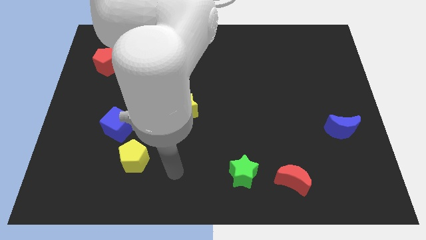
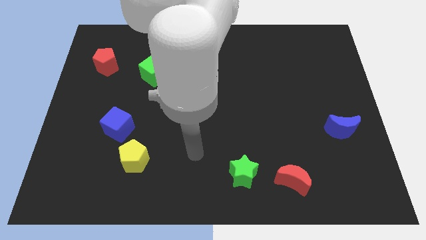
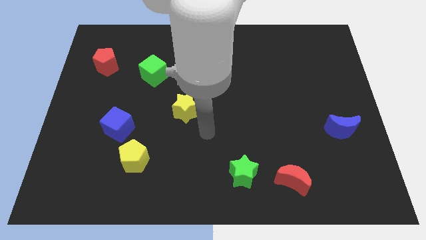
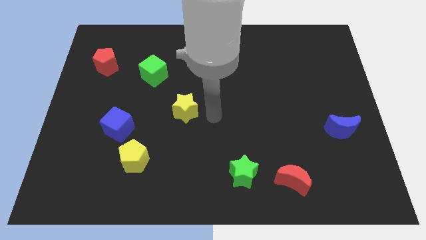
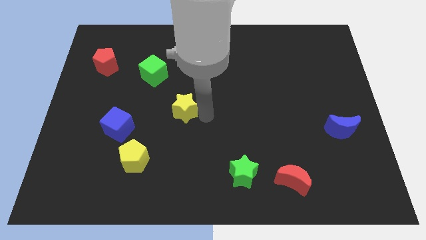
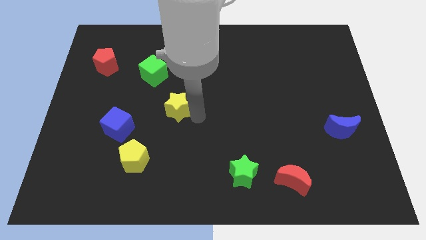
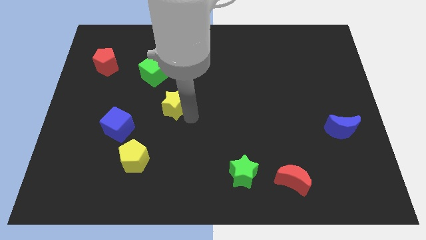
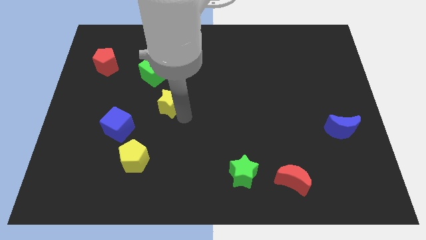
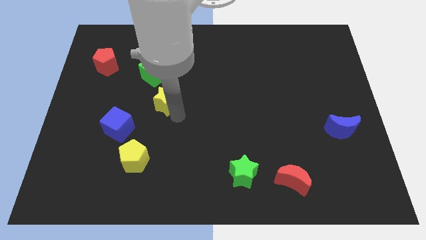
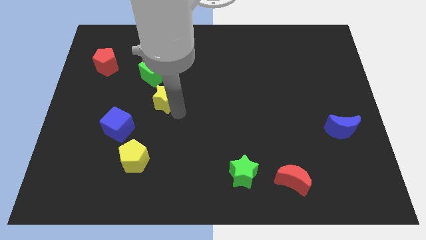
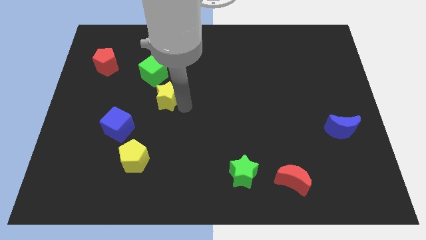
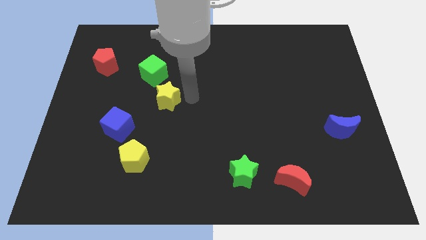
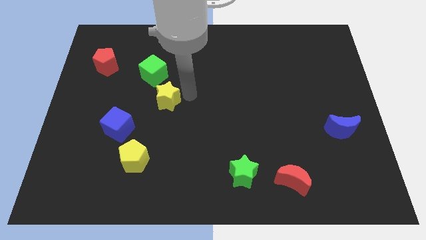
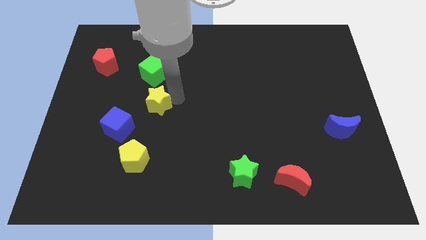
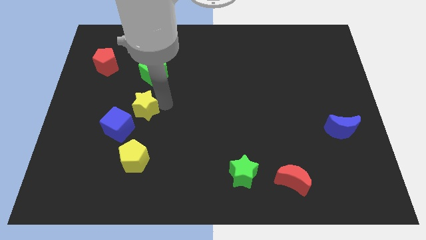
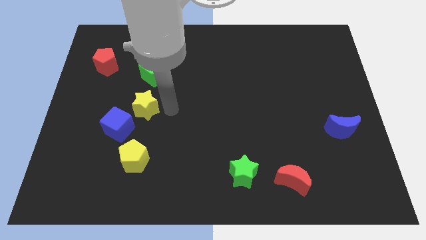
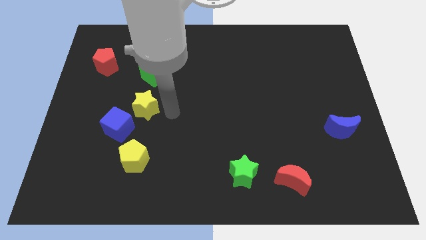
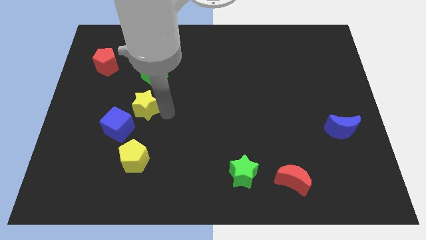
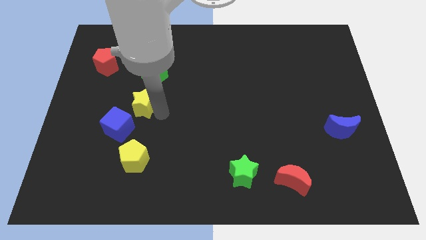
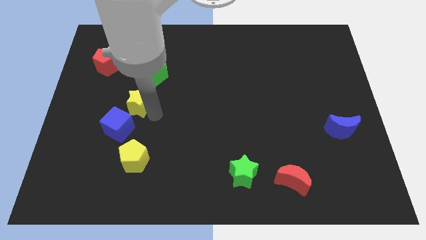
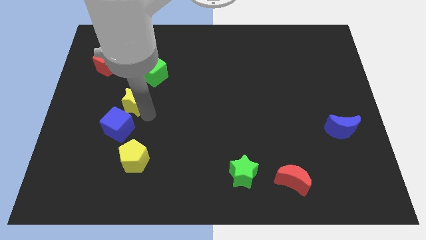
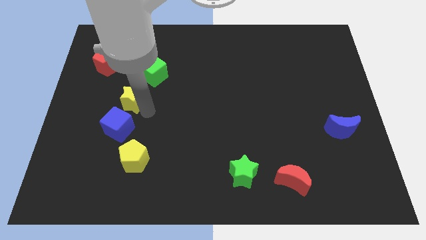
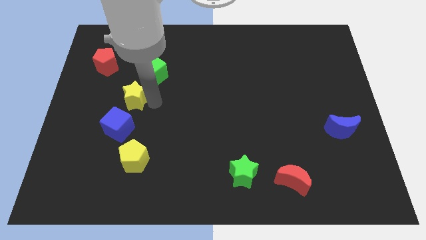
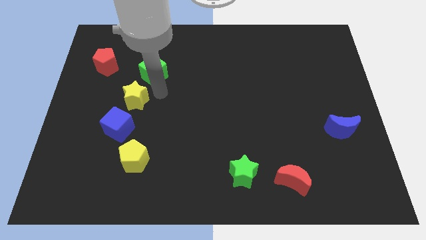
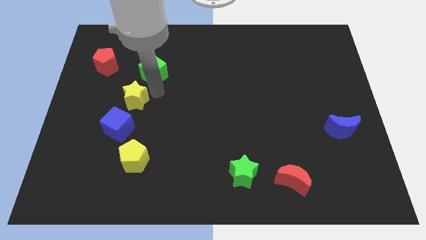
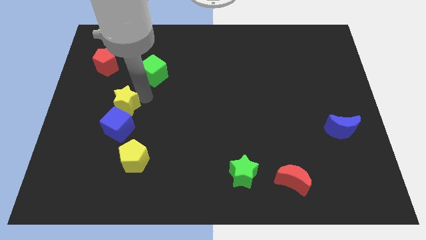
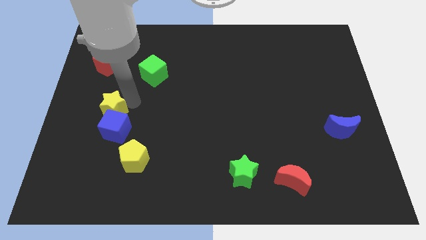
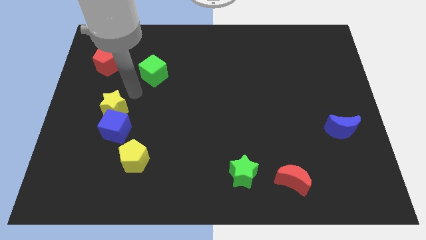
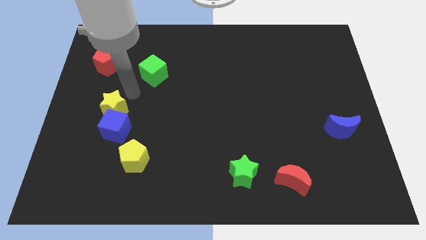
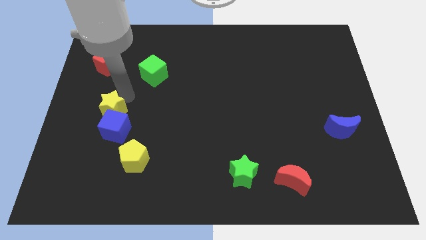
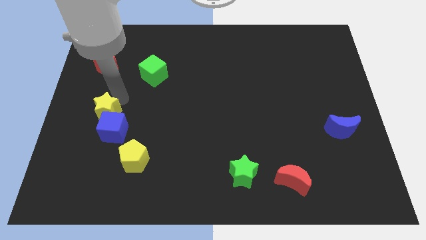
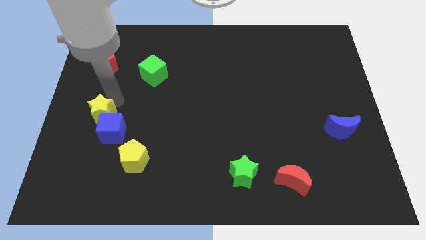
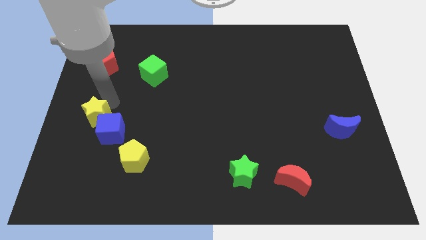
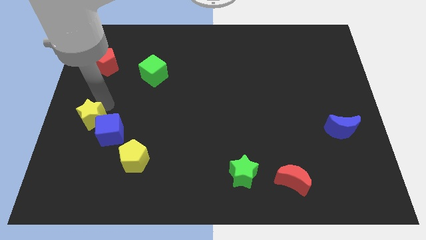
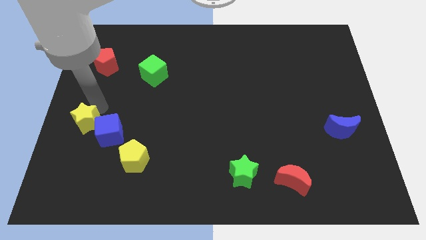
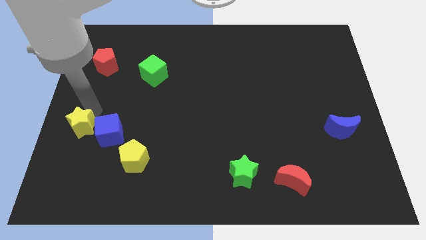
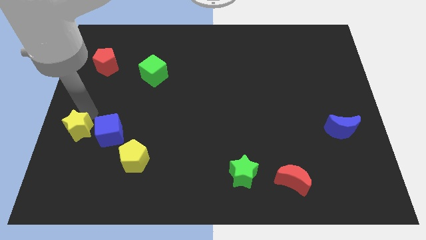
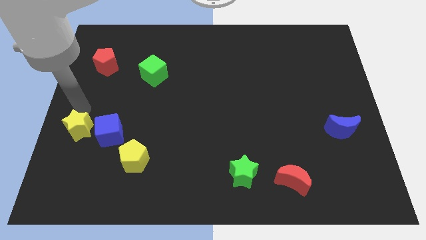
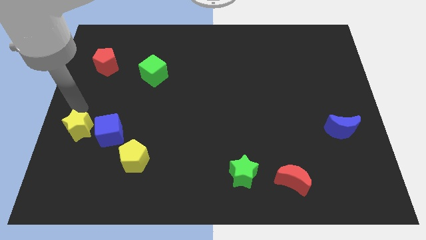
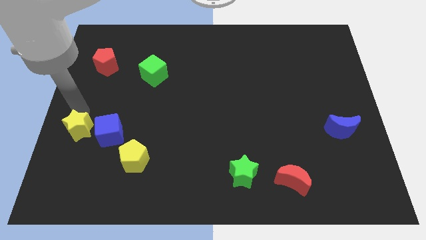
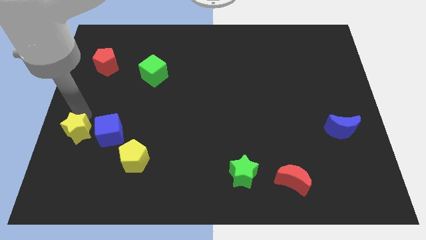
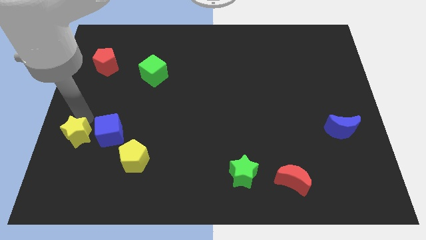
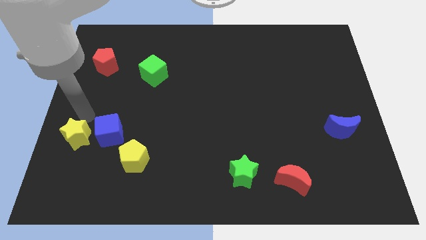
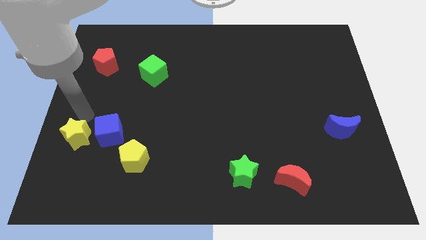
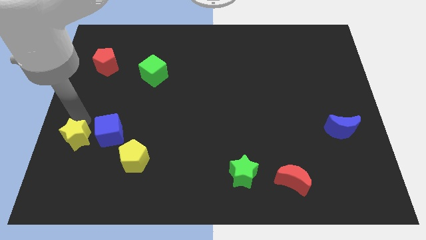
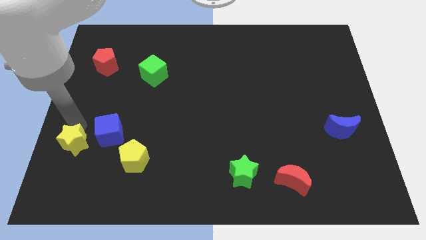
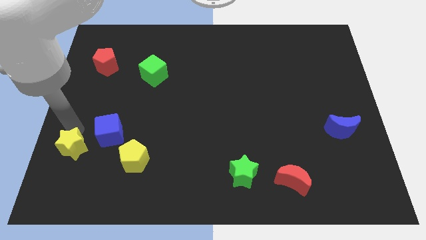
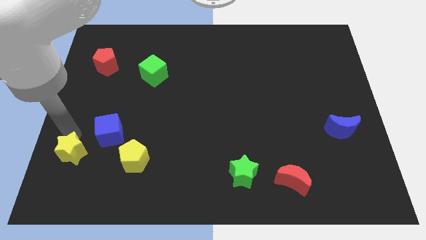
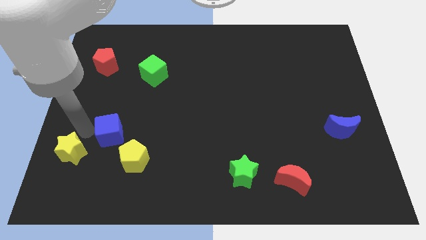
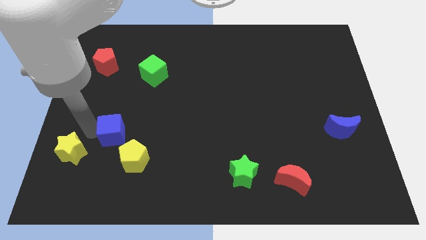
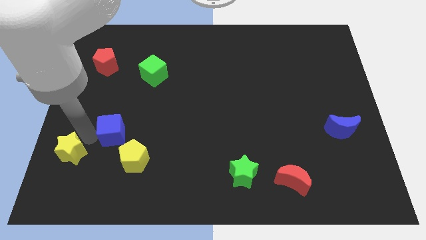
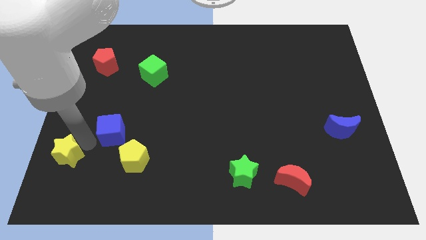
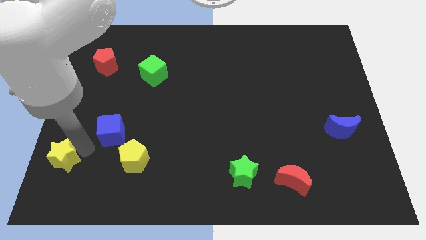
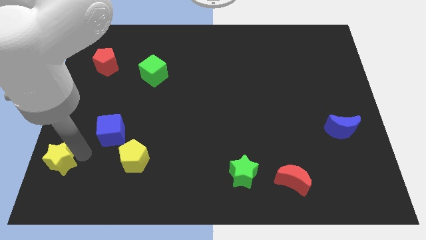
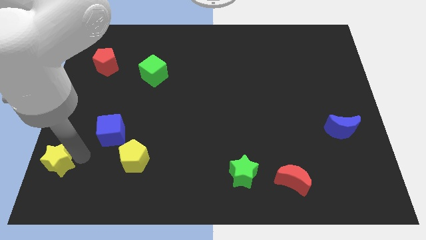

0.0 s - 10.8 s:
push the yellow star to the lower left corner
